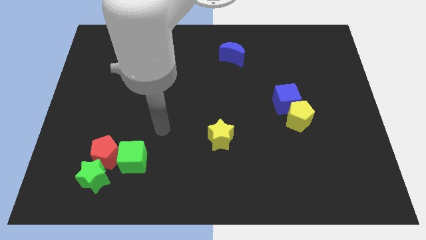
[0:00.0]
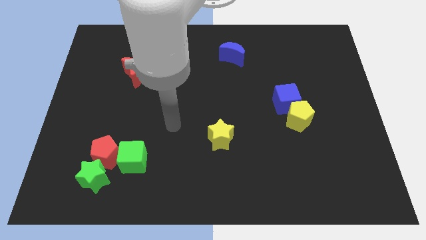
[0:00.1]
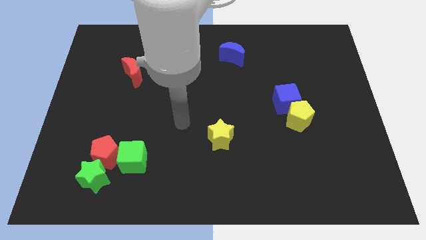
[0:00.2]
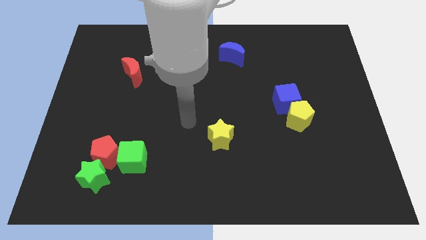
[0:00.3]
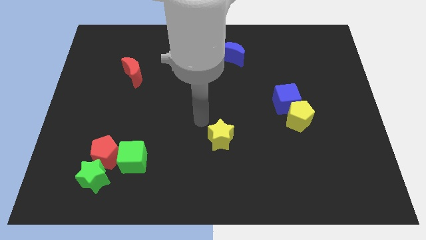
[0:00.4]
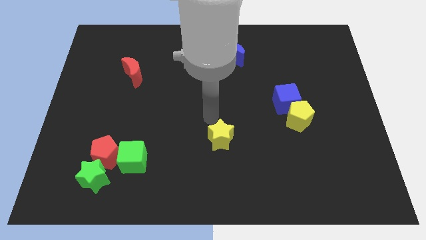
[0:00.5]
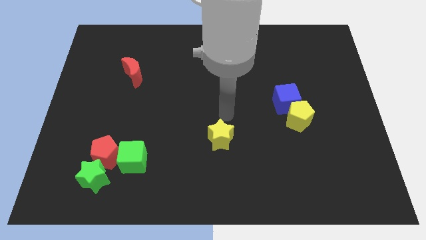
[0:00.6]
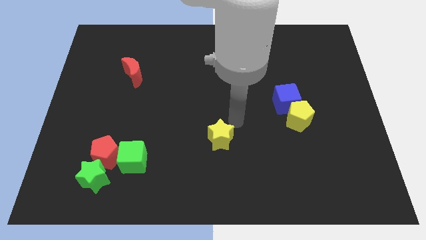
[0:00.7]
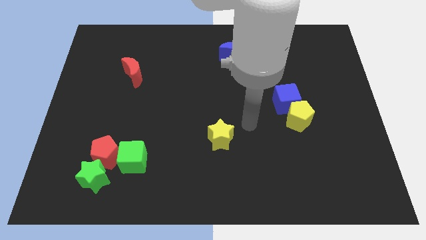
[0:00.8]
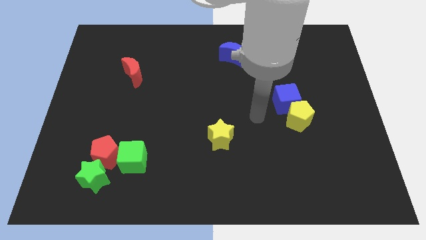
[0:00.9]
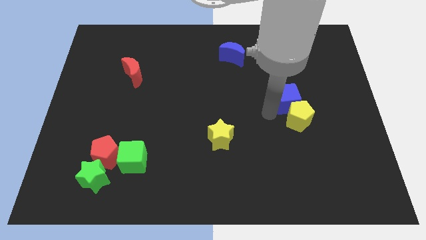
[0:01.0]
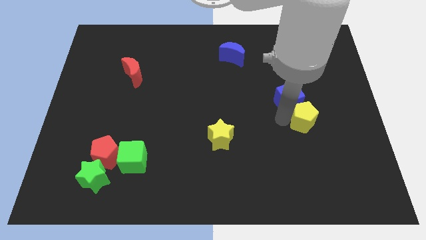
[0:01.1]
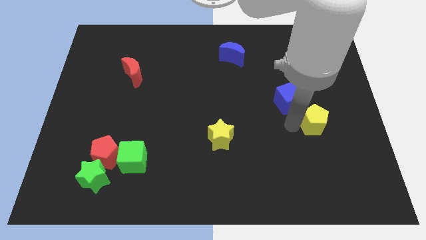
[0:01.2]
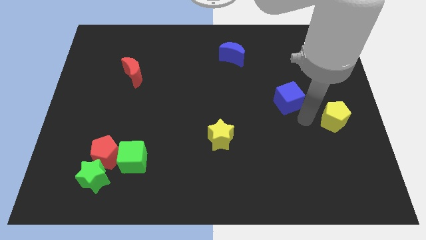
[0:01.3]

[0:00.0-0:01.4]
separate the blue cube from the yellow pentagon

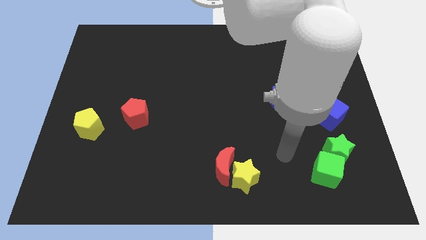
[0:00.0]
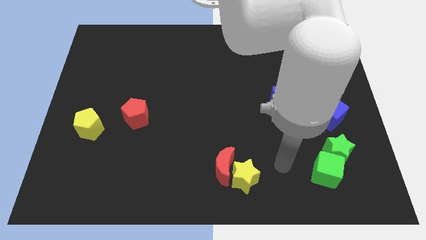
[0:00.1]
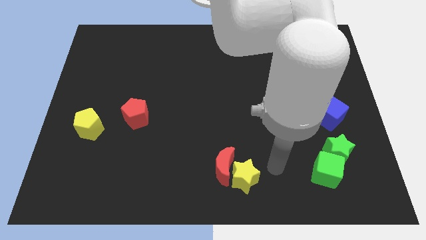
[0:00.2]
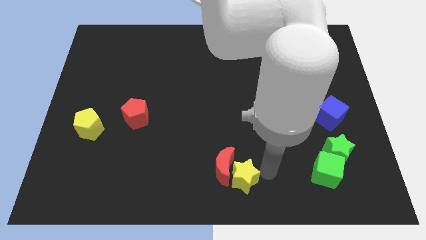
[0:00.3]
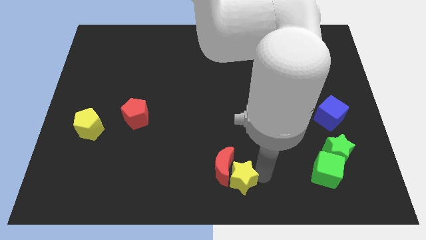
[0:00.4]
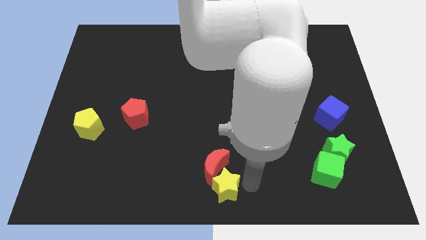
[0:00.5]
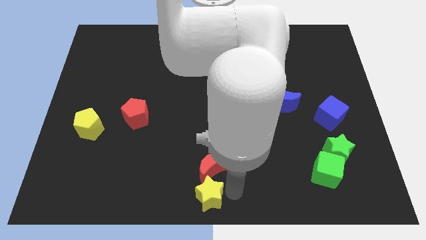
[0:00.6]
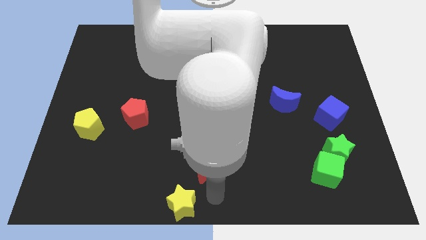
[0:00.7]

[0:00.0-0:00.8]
move the red moon away from the yellow star

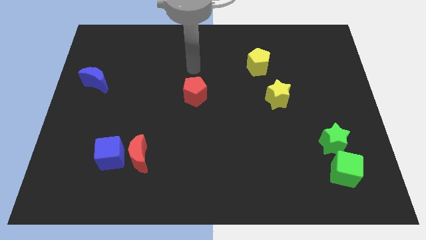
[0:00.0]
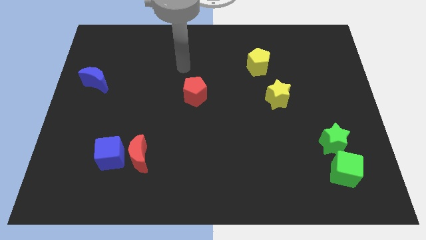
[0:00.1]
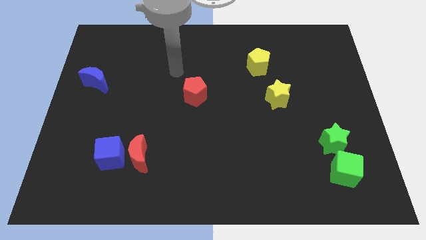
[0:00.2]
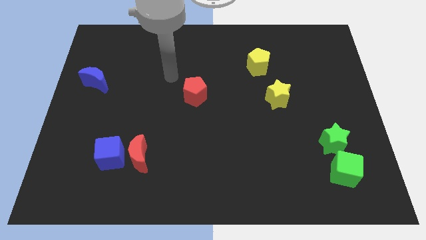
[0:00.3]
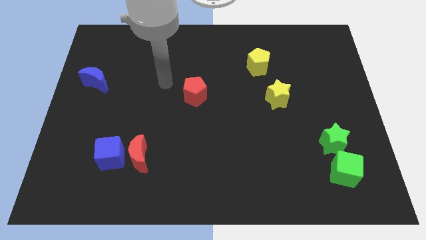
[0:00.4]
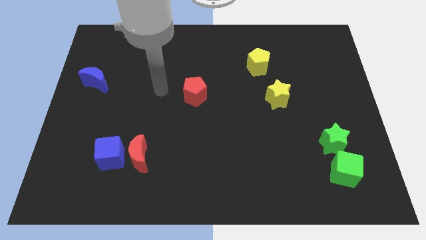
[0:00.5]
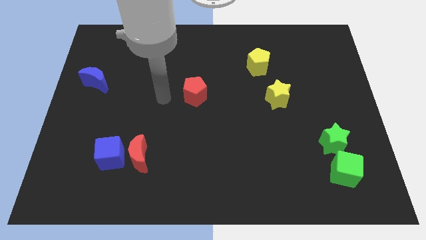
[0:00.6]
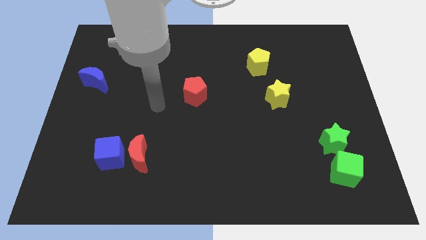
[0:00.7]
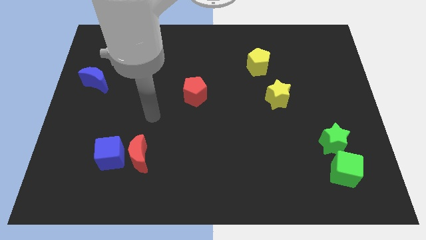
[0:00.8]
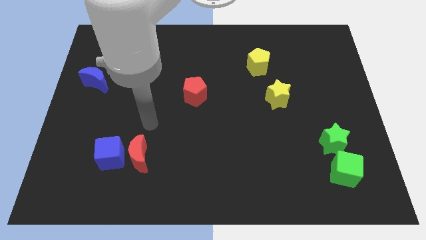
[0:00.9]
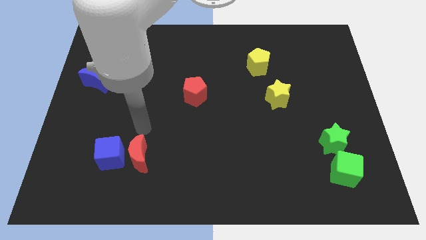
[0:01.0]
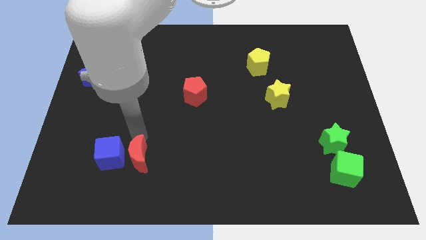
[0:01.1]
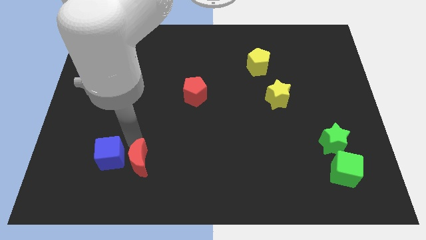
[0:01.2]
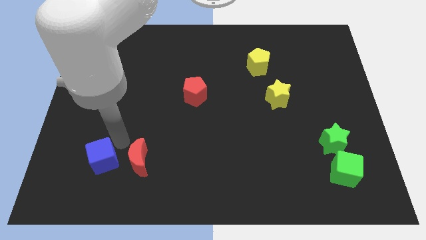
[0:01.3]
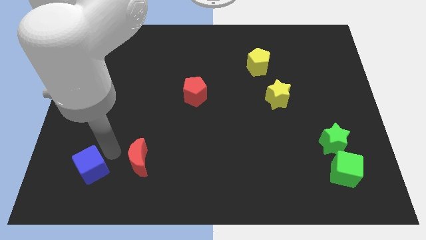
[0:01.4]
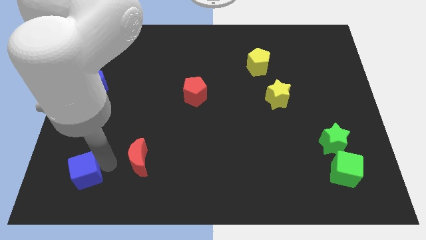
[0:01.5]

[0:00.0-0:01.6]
pull the red moon apart from the blue cube

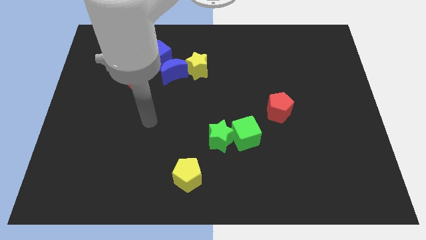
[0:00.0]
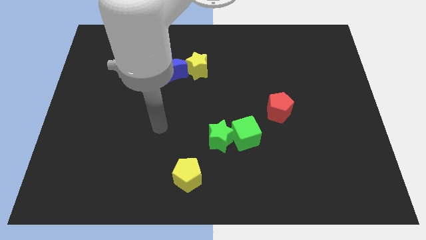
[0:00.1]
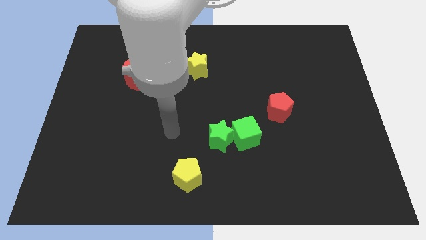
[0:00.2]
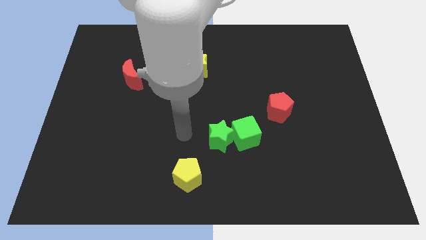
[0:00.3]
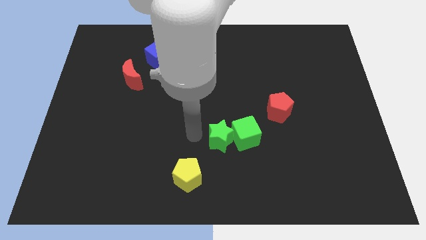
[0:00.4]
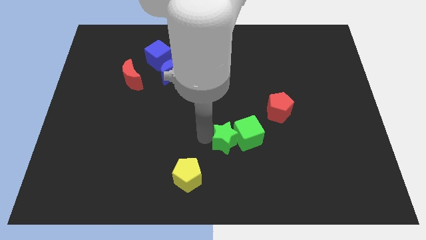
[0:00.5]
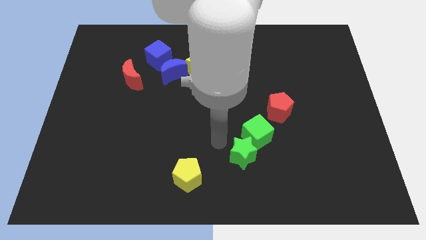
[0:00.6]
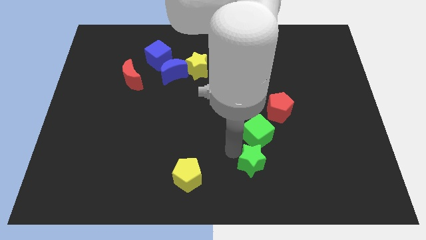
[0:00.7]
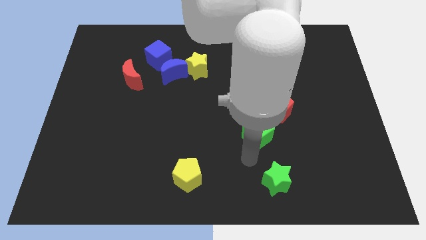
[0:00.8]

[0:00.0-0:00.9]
pull the green cube apart from the green star

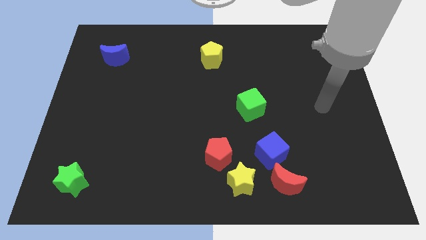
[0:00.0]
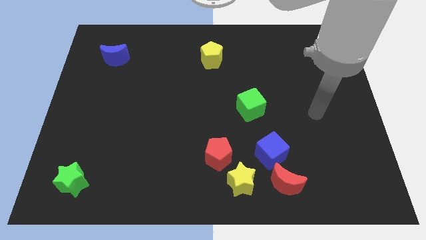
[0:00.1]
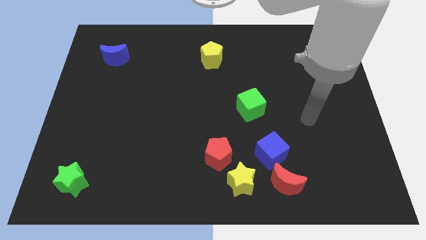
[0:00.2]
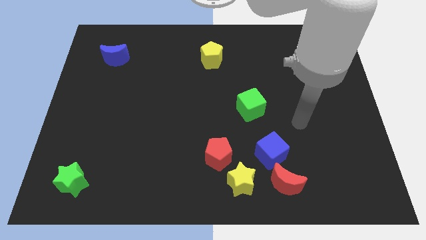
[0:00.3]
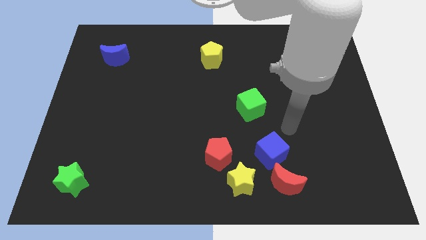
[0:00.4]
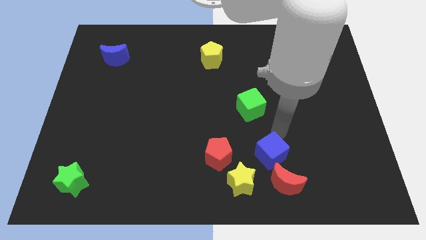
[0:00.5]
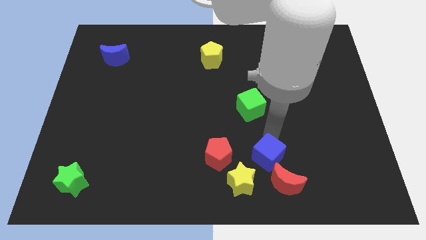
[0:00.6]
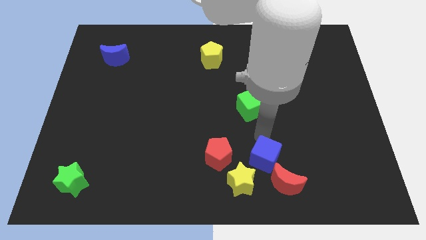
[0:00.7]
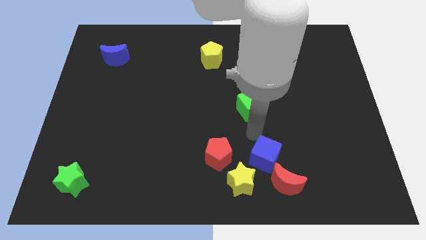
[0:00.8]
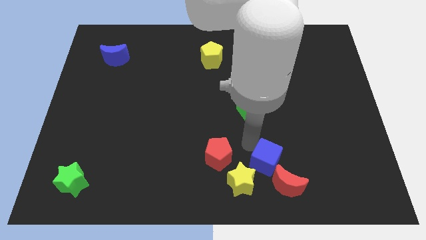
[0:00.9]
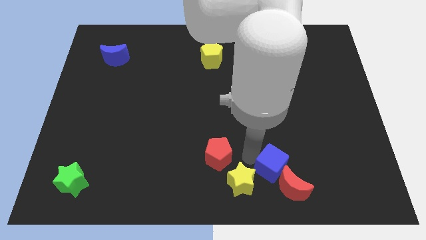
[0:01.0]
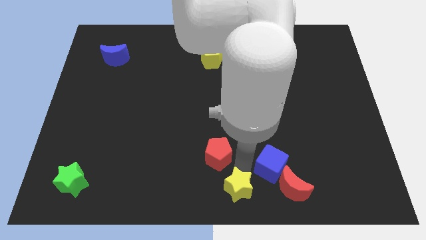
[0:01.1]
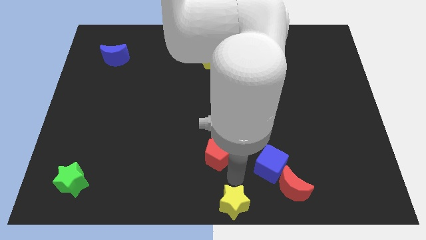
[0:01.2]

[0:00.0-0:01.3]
pull the red pentagon apart from the yellow star

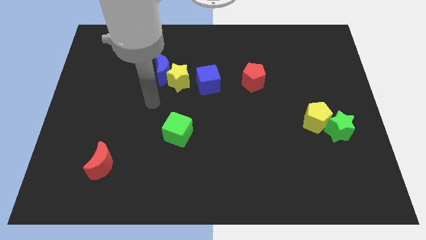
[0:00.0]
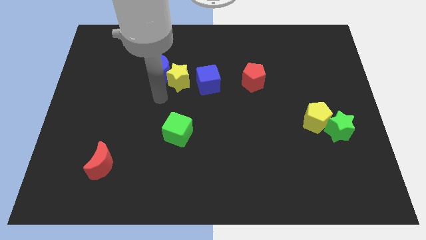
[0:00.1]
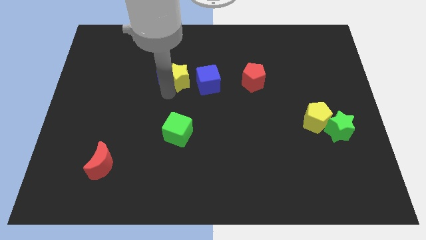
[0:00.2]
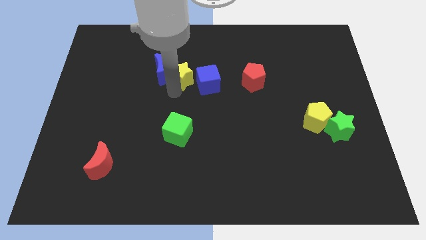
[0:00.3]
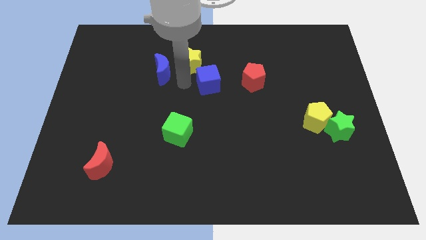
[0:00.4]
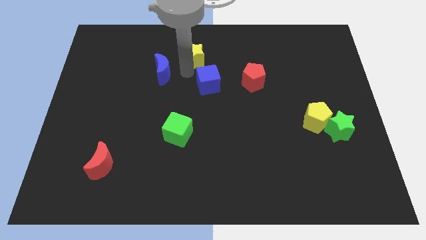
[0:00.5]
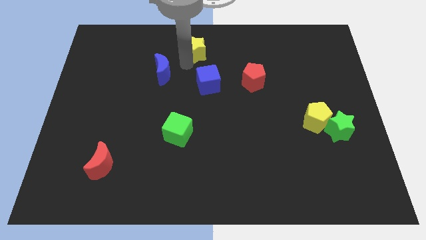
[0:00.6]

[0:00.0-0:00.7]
separate the blue moon from the yellow star

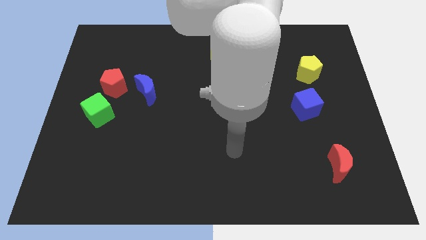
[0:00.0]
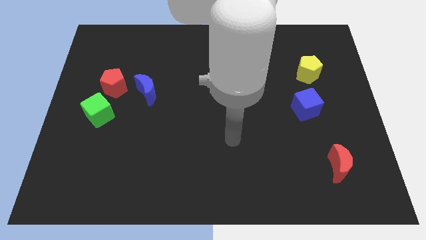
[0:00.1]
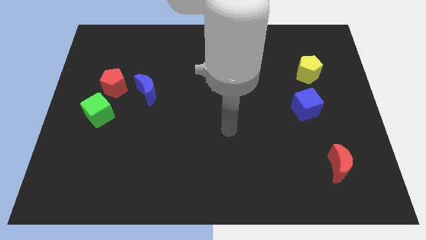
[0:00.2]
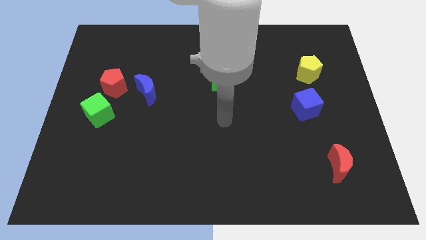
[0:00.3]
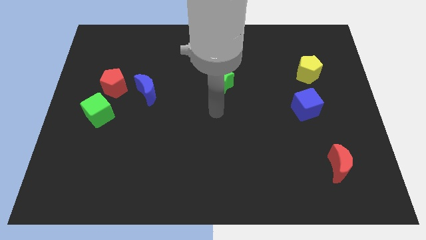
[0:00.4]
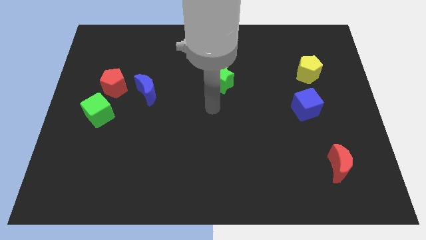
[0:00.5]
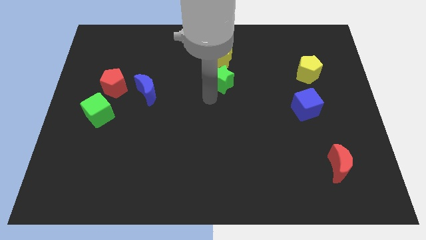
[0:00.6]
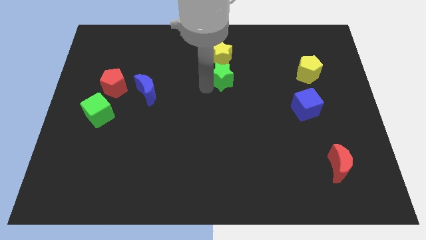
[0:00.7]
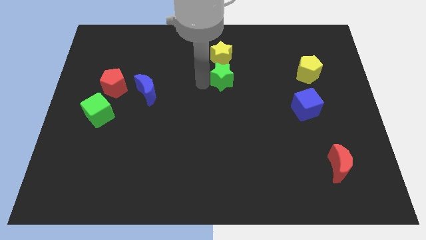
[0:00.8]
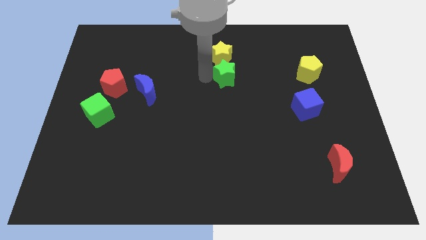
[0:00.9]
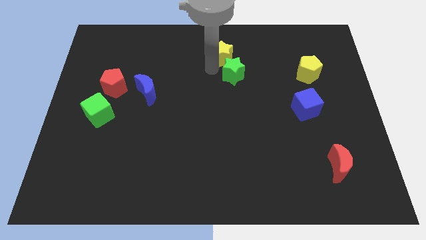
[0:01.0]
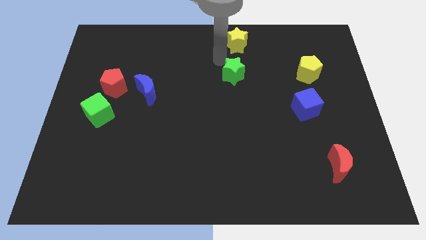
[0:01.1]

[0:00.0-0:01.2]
separate the green star from the yellow star

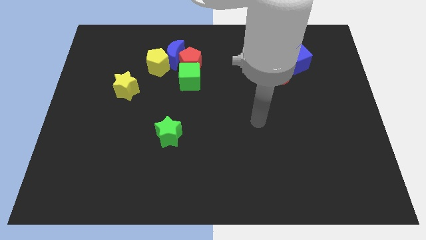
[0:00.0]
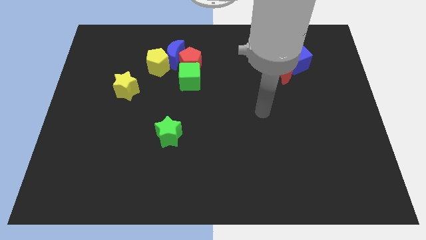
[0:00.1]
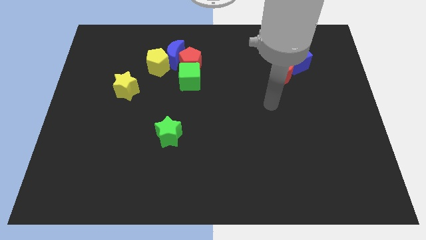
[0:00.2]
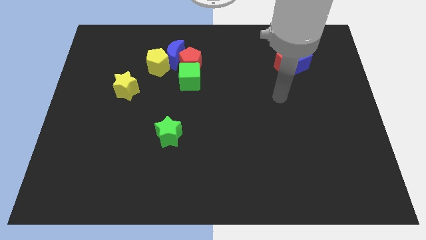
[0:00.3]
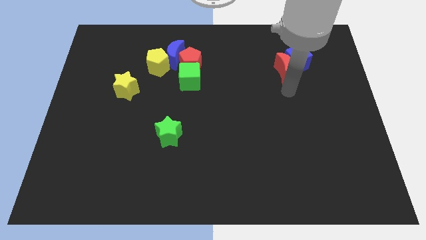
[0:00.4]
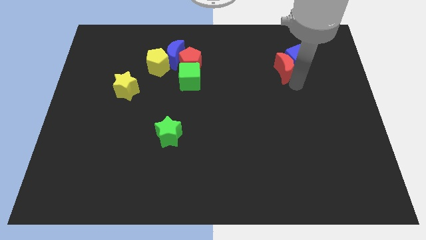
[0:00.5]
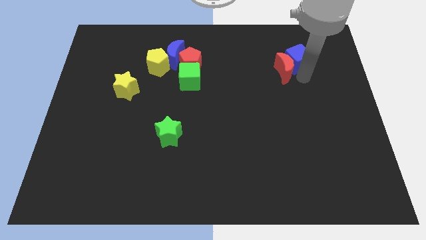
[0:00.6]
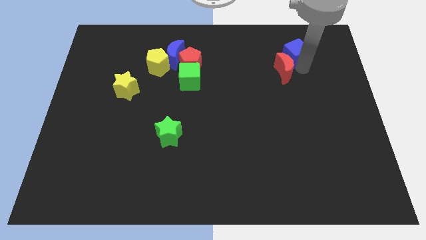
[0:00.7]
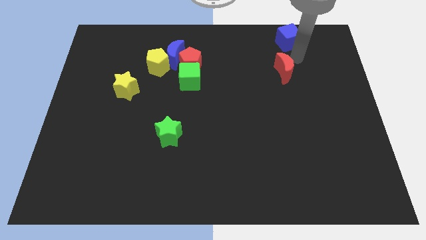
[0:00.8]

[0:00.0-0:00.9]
separate the red moon from the blue cube

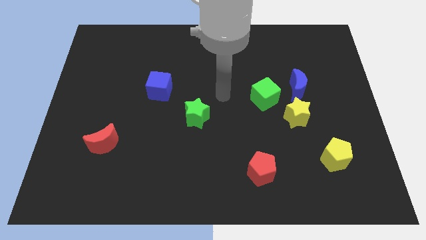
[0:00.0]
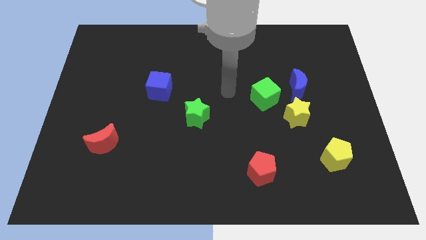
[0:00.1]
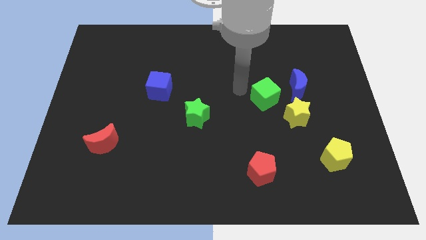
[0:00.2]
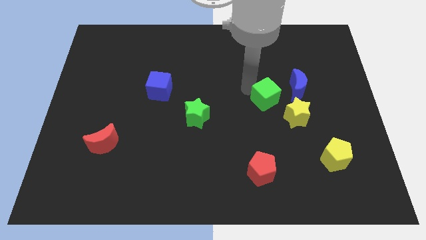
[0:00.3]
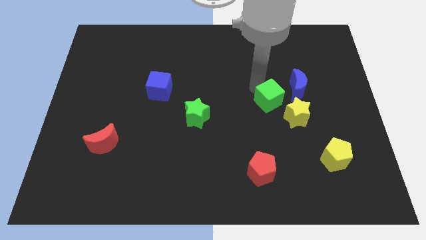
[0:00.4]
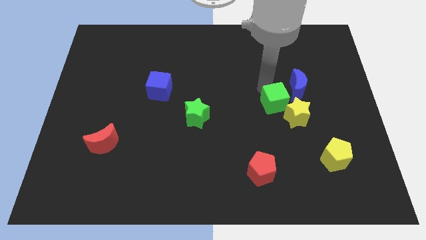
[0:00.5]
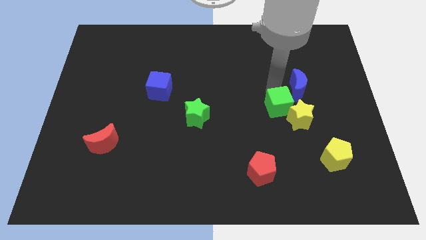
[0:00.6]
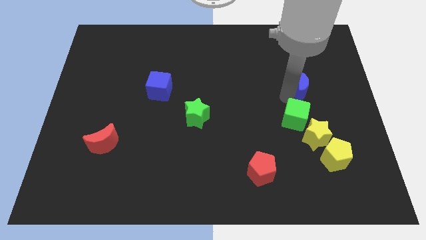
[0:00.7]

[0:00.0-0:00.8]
pull the yellow star apart from the blue moon and green cube
